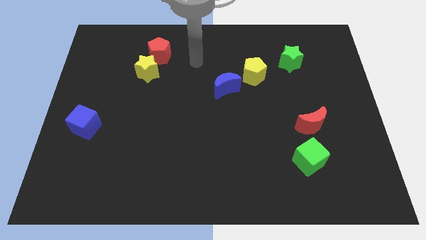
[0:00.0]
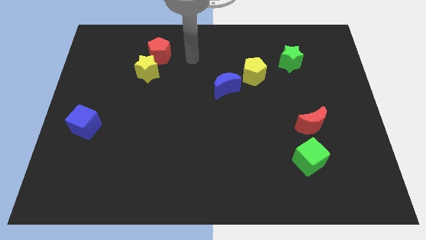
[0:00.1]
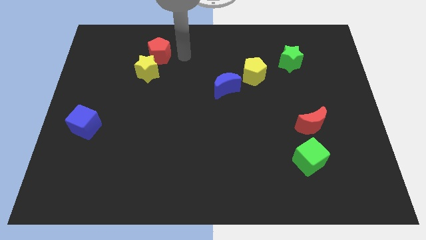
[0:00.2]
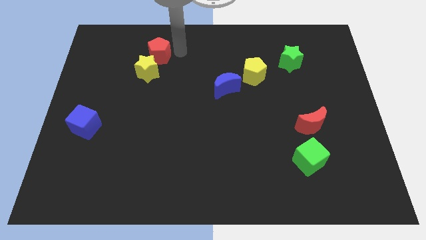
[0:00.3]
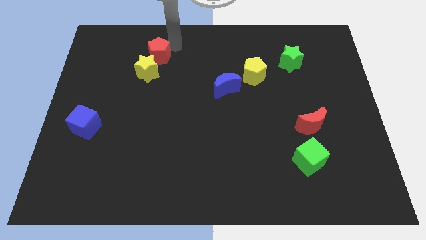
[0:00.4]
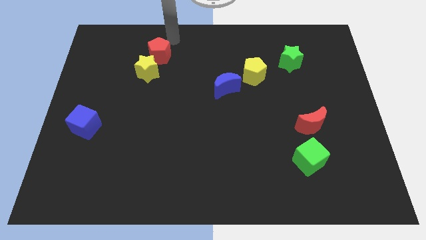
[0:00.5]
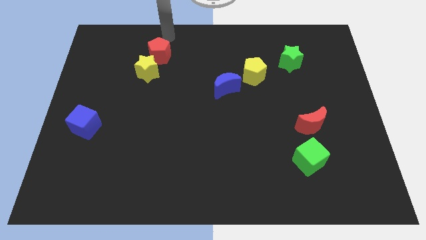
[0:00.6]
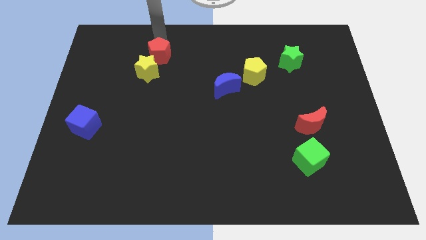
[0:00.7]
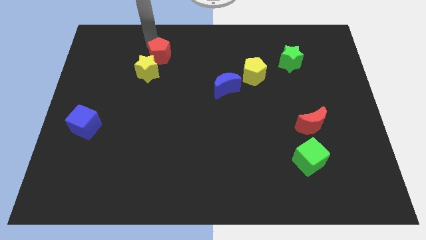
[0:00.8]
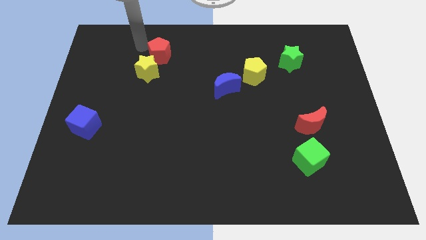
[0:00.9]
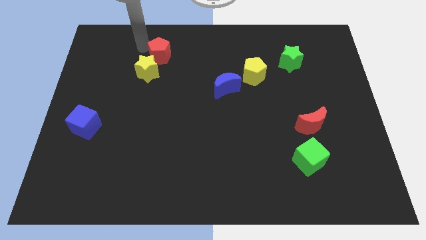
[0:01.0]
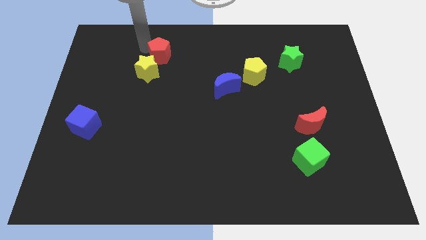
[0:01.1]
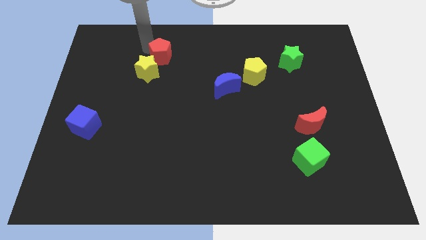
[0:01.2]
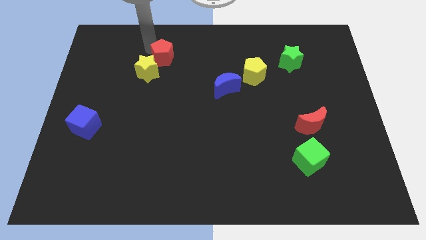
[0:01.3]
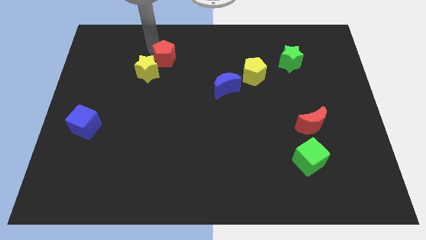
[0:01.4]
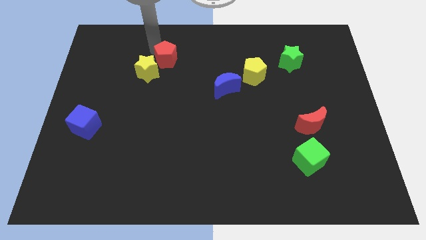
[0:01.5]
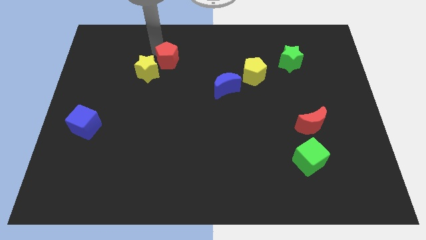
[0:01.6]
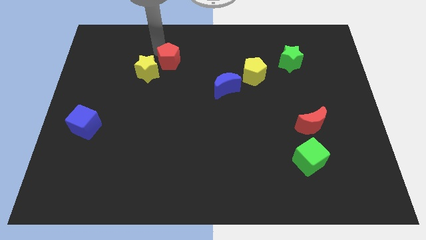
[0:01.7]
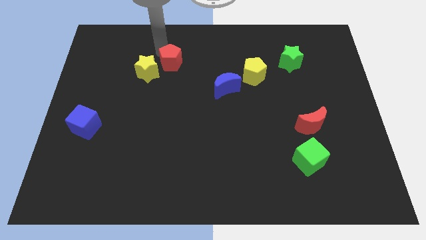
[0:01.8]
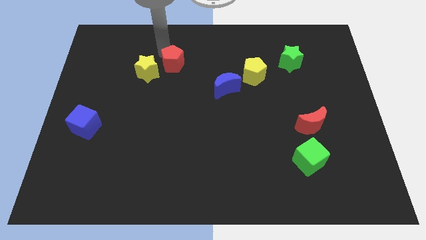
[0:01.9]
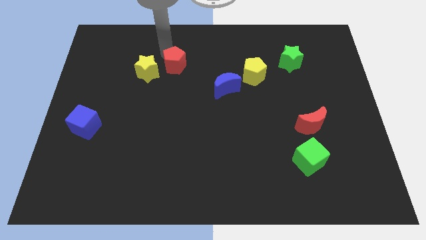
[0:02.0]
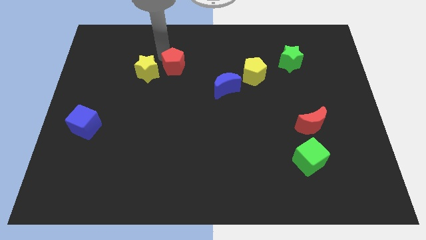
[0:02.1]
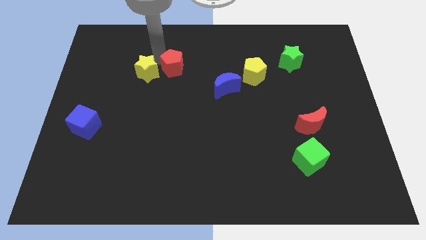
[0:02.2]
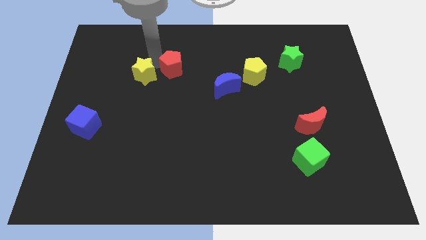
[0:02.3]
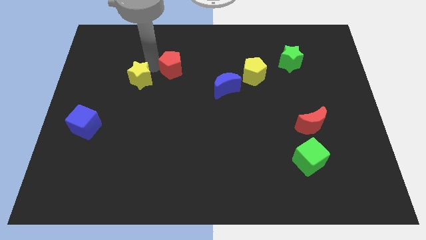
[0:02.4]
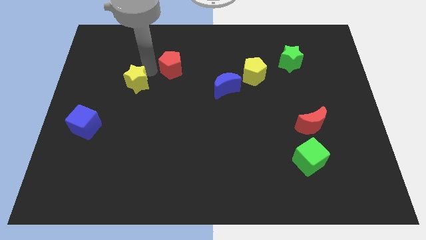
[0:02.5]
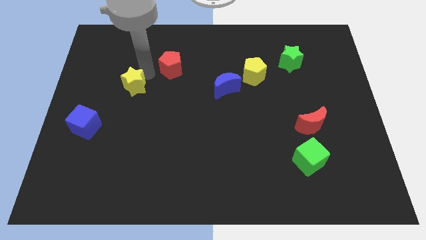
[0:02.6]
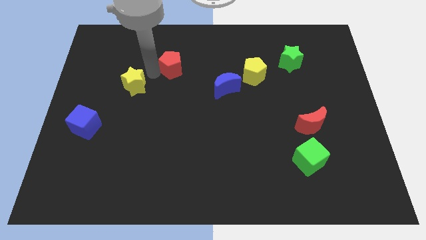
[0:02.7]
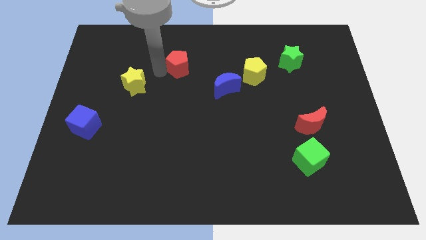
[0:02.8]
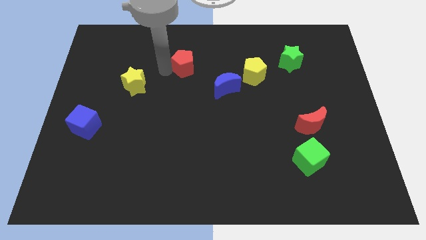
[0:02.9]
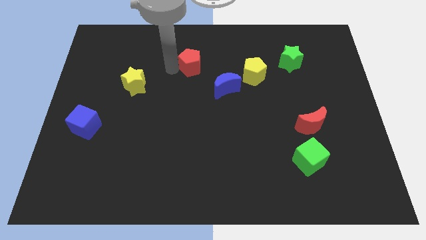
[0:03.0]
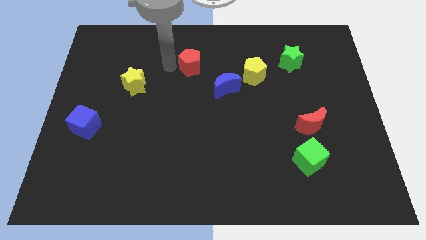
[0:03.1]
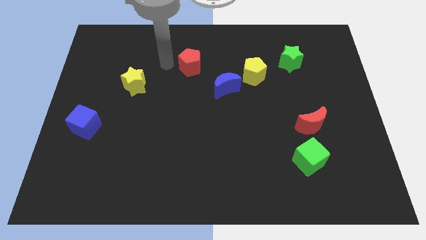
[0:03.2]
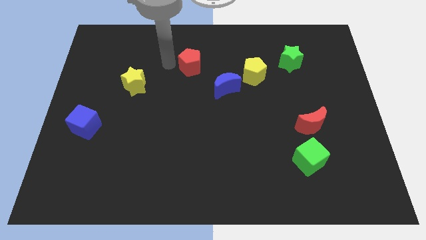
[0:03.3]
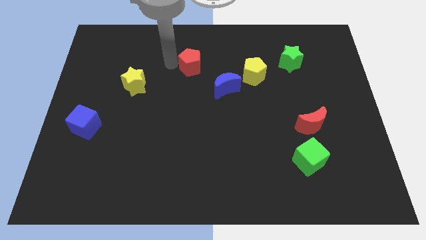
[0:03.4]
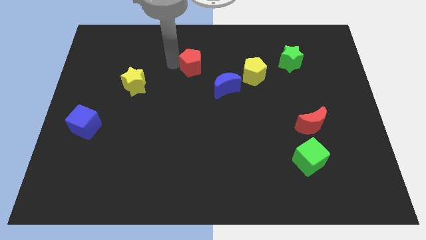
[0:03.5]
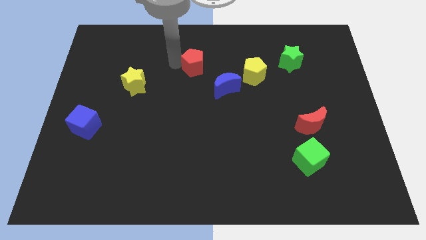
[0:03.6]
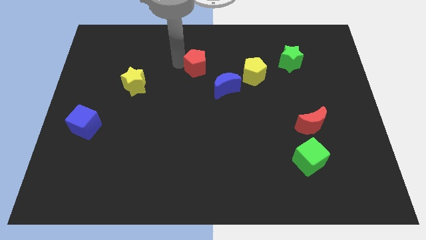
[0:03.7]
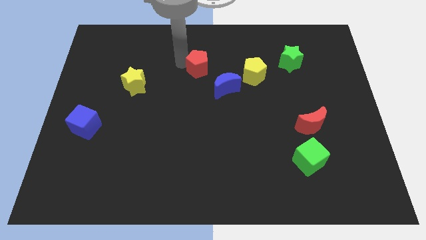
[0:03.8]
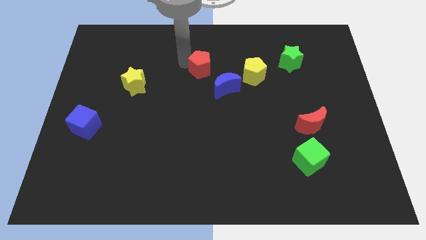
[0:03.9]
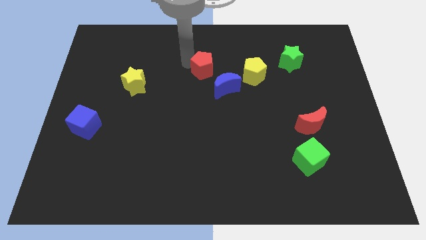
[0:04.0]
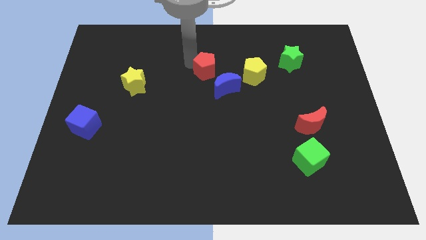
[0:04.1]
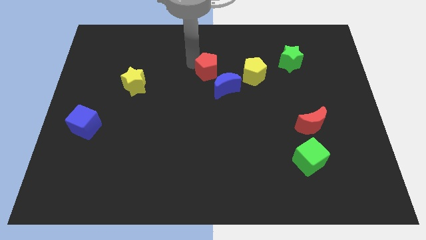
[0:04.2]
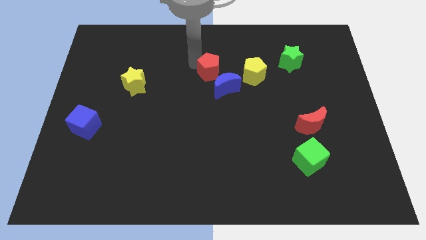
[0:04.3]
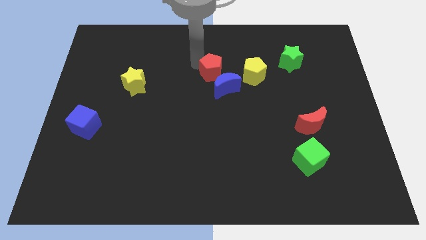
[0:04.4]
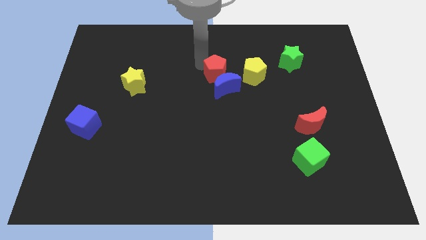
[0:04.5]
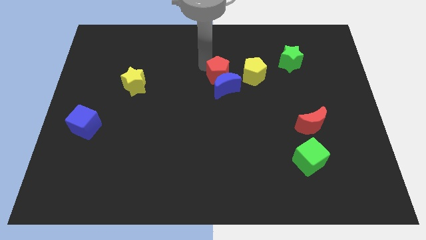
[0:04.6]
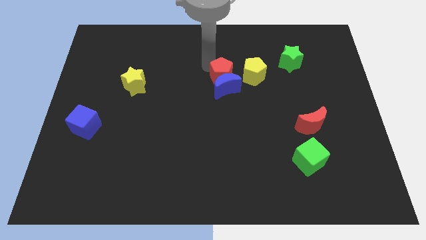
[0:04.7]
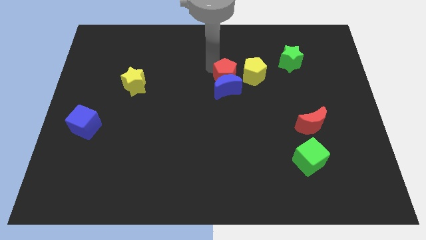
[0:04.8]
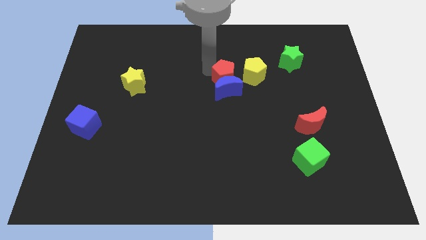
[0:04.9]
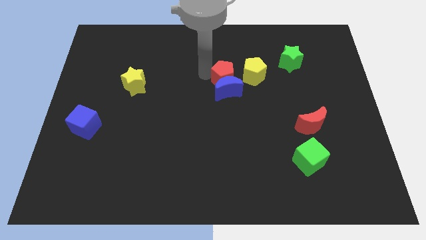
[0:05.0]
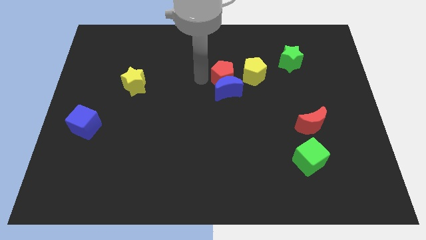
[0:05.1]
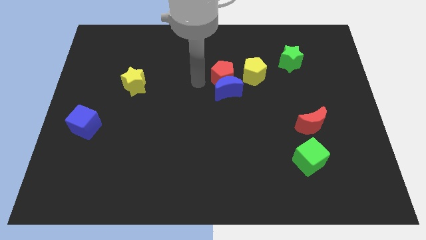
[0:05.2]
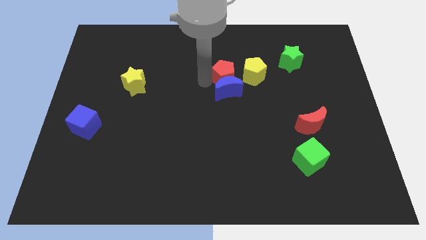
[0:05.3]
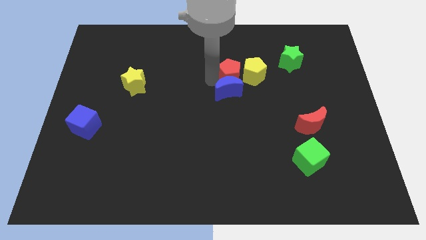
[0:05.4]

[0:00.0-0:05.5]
move the red pentagon to the yellow pentagon

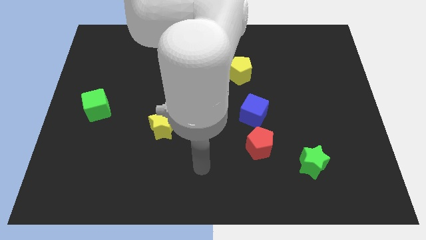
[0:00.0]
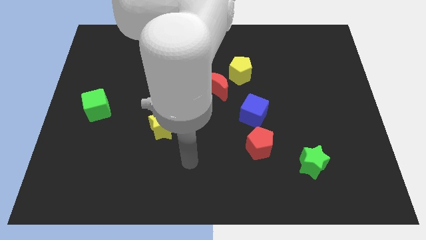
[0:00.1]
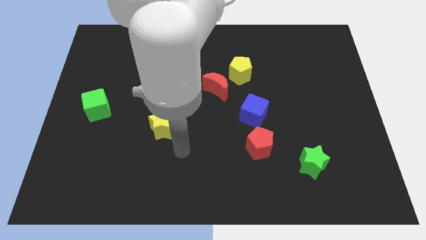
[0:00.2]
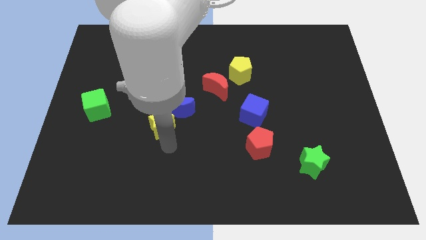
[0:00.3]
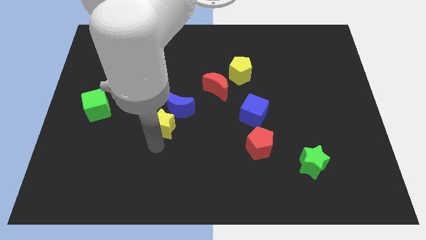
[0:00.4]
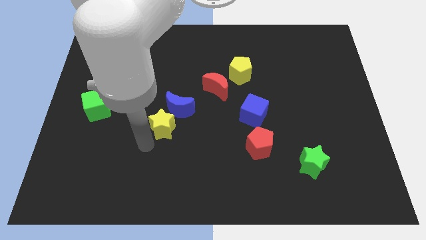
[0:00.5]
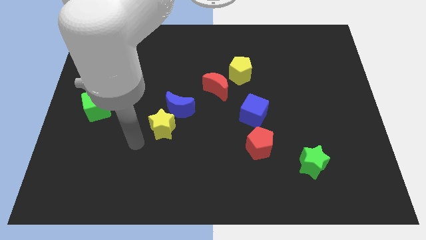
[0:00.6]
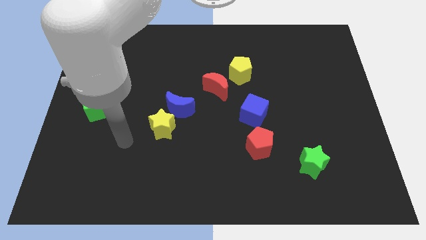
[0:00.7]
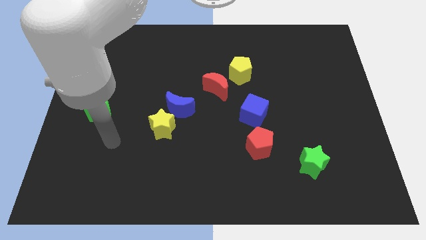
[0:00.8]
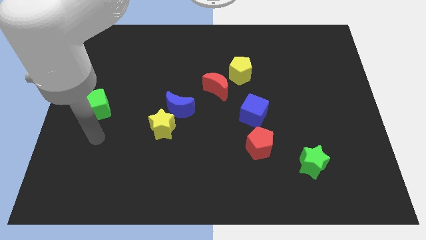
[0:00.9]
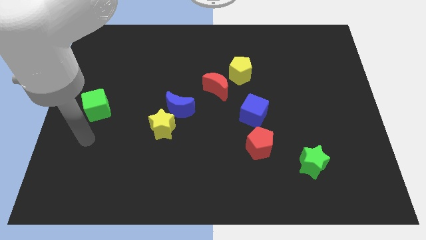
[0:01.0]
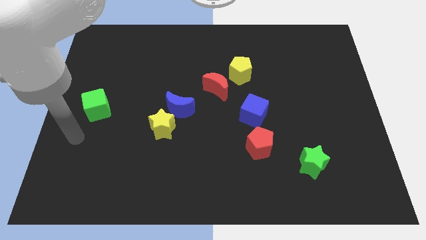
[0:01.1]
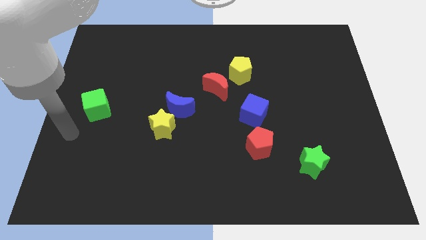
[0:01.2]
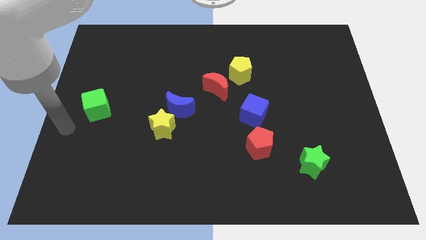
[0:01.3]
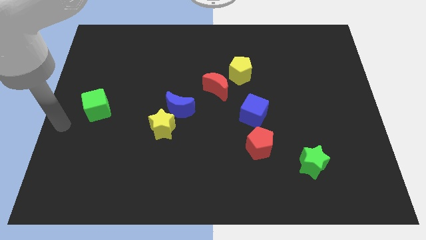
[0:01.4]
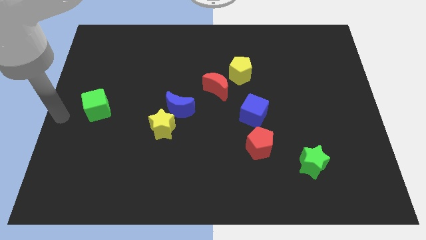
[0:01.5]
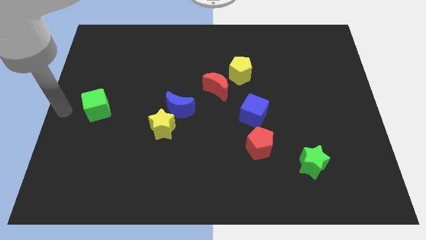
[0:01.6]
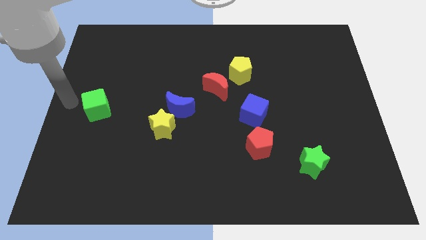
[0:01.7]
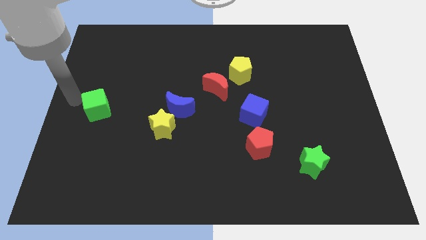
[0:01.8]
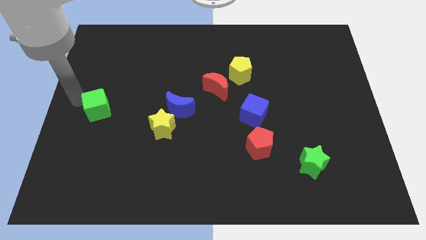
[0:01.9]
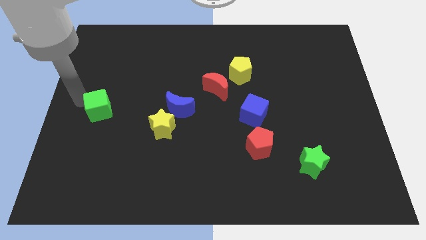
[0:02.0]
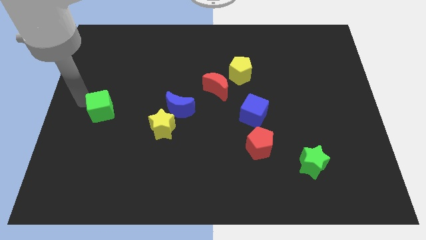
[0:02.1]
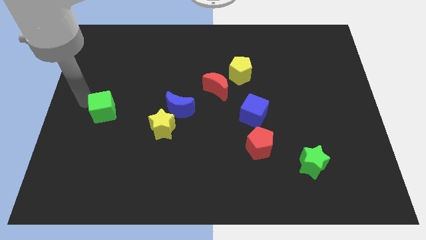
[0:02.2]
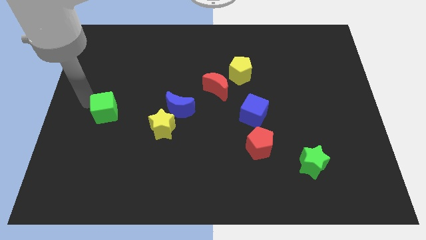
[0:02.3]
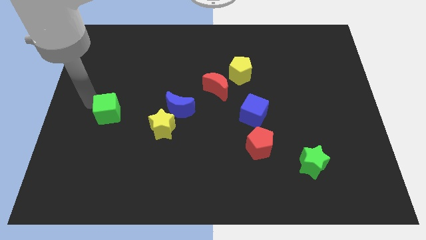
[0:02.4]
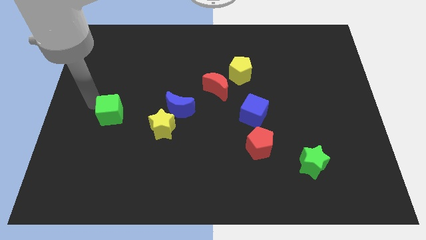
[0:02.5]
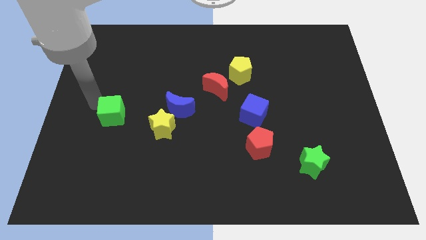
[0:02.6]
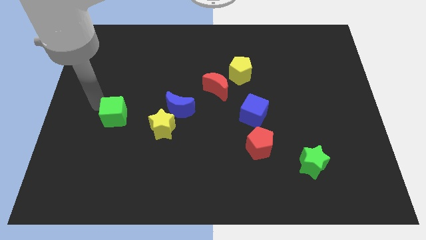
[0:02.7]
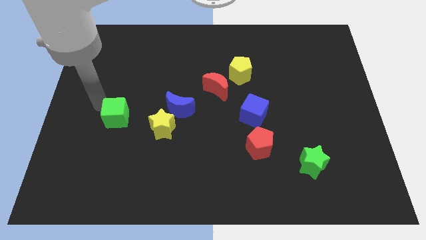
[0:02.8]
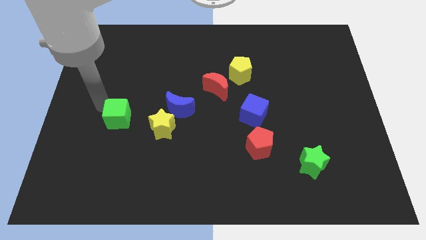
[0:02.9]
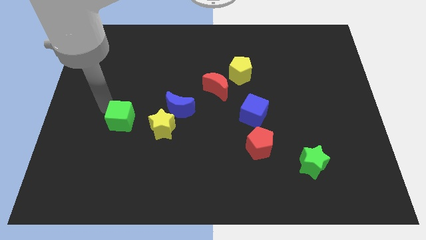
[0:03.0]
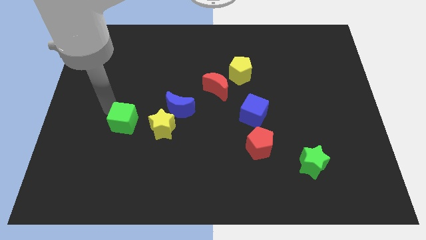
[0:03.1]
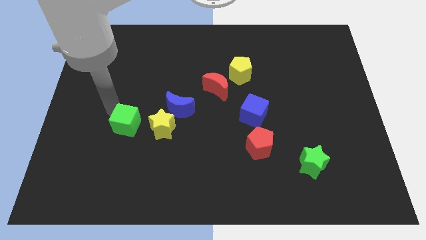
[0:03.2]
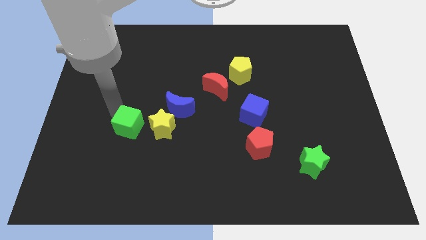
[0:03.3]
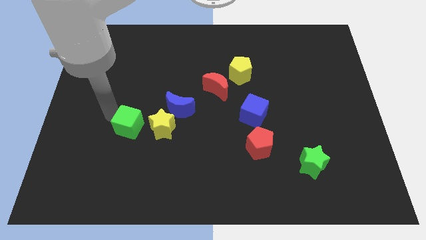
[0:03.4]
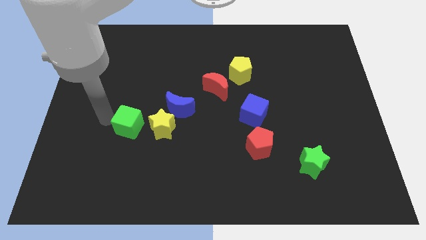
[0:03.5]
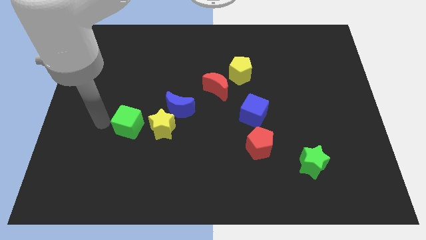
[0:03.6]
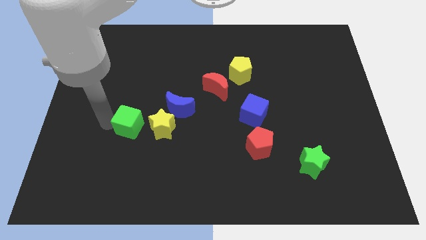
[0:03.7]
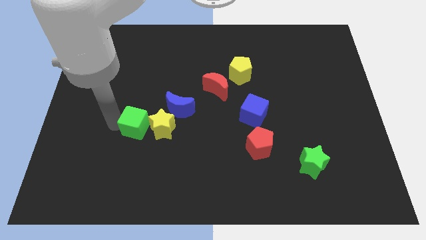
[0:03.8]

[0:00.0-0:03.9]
put the green cube to the yellow star
